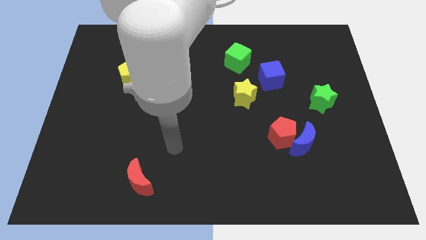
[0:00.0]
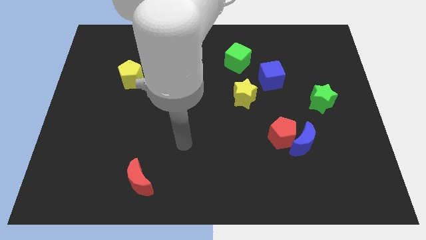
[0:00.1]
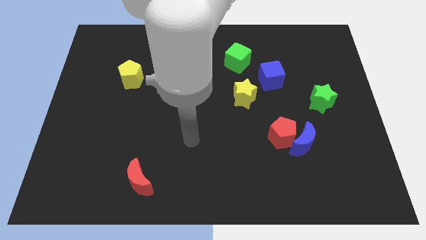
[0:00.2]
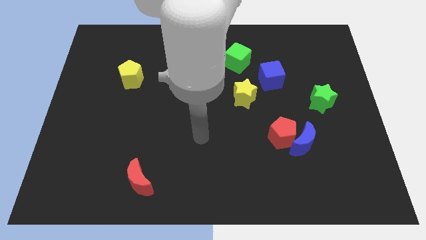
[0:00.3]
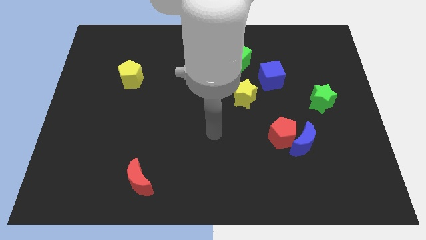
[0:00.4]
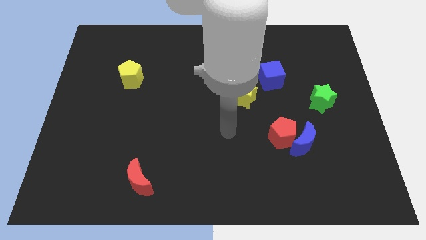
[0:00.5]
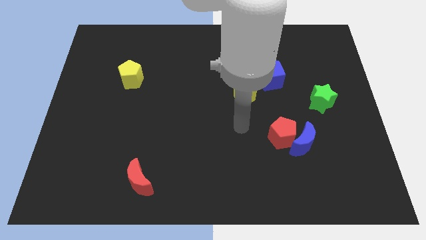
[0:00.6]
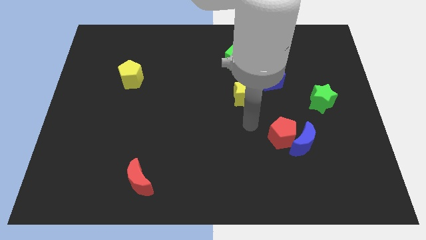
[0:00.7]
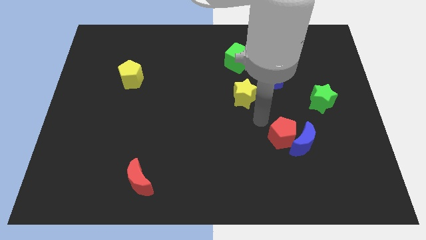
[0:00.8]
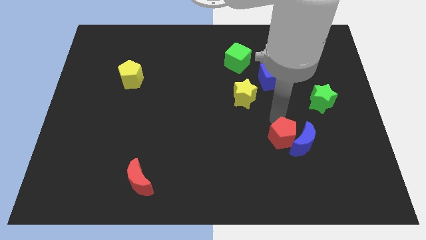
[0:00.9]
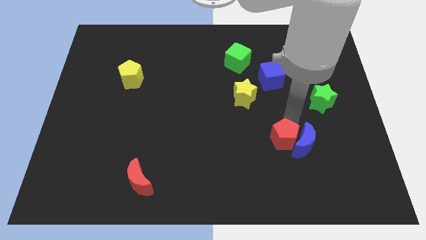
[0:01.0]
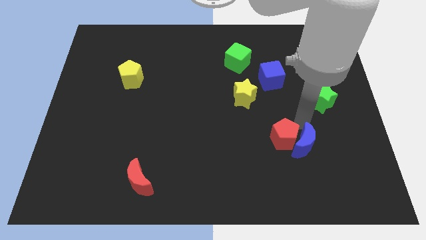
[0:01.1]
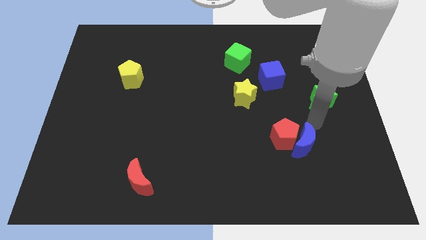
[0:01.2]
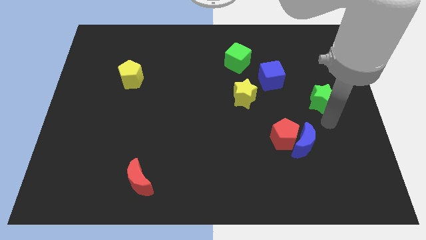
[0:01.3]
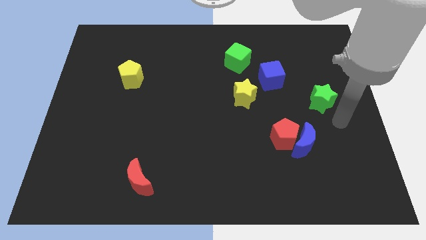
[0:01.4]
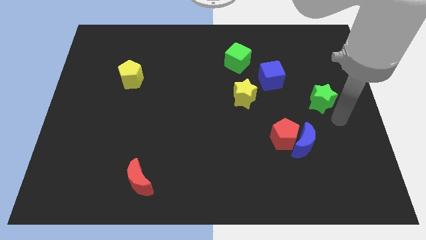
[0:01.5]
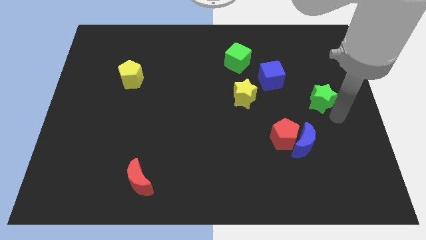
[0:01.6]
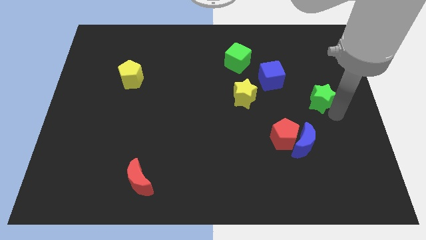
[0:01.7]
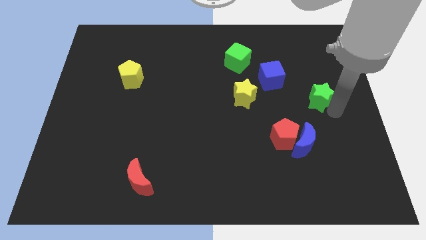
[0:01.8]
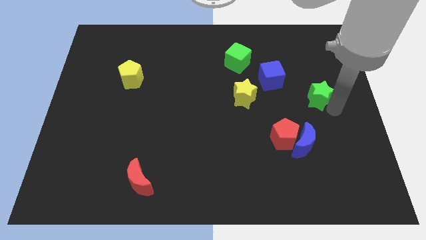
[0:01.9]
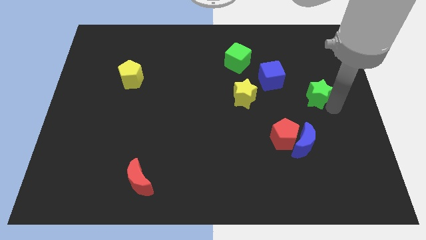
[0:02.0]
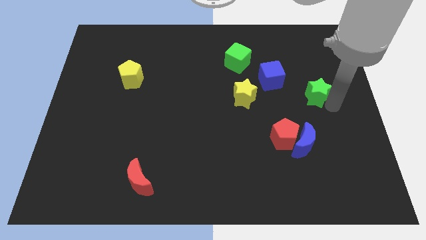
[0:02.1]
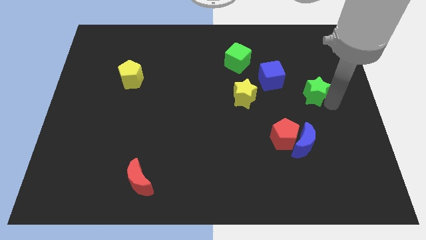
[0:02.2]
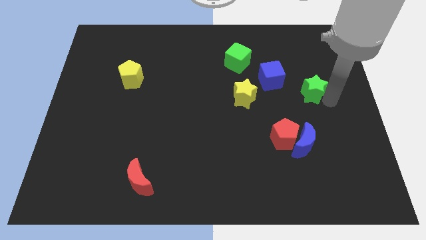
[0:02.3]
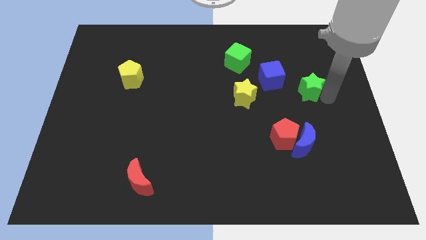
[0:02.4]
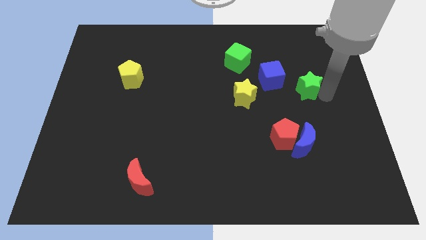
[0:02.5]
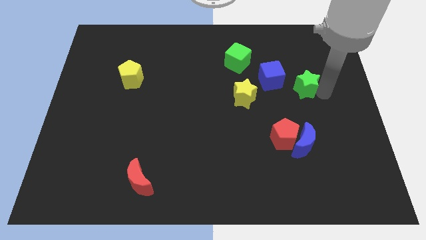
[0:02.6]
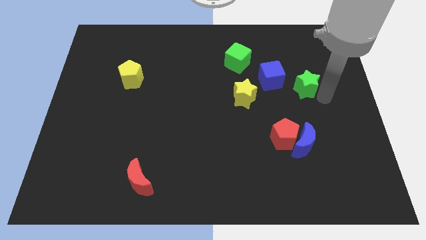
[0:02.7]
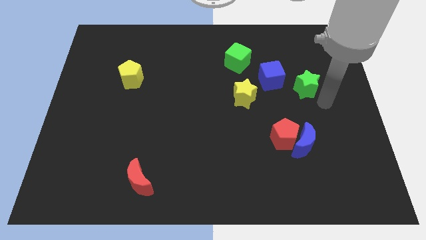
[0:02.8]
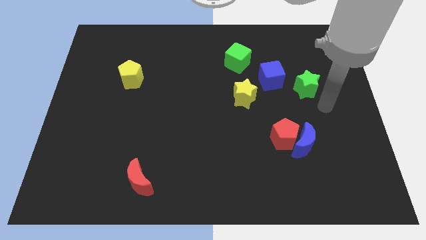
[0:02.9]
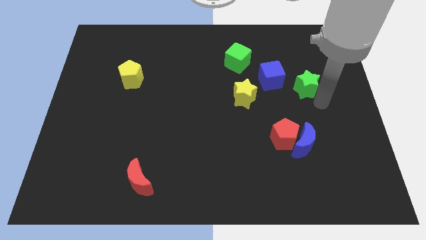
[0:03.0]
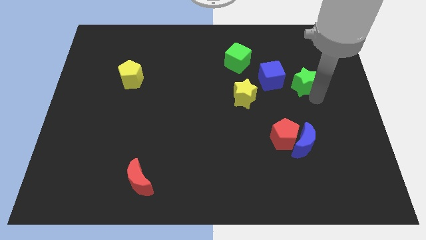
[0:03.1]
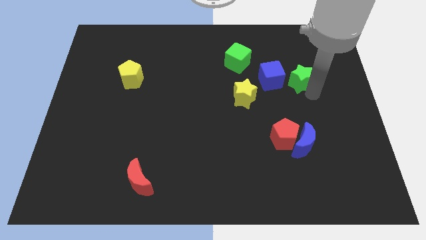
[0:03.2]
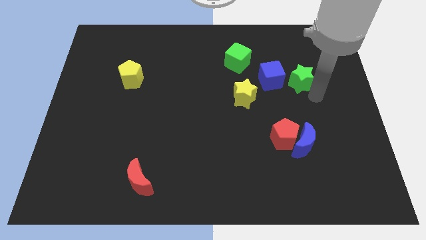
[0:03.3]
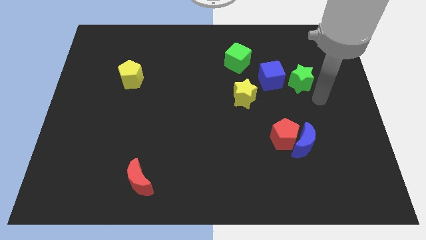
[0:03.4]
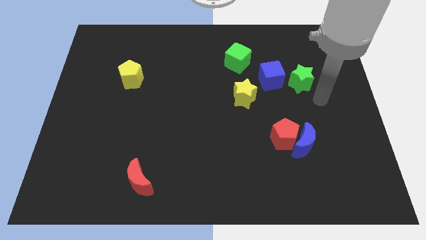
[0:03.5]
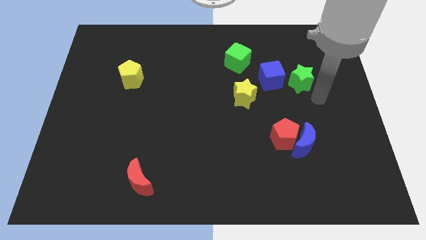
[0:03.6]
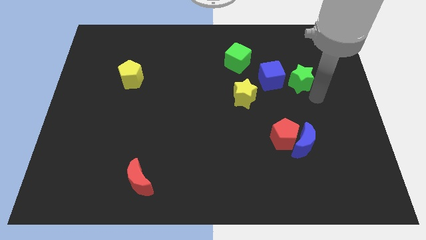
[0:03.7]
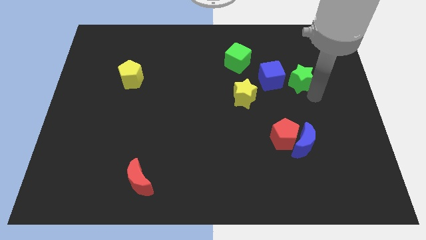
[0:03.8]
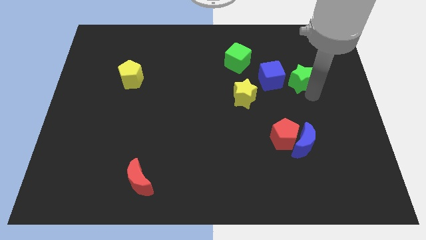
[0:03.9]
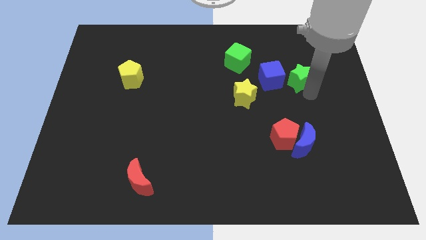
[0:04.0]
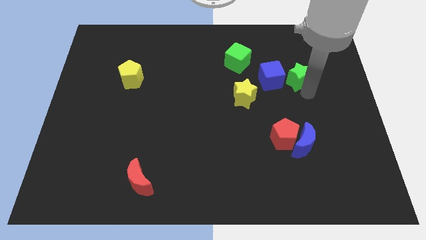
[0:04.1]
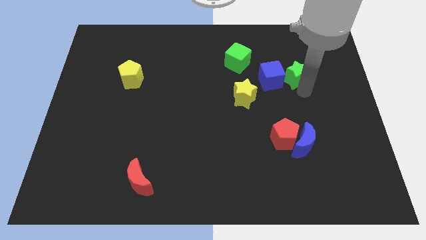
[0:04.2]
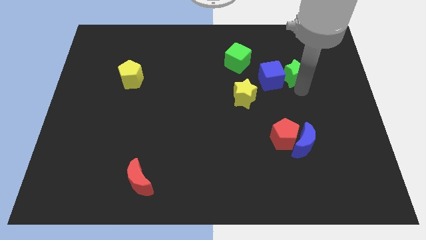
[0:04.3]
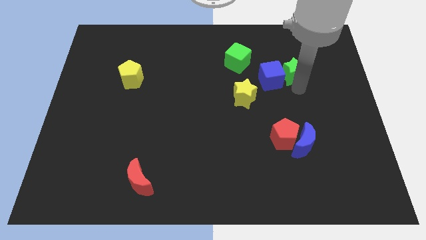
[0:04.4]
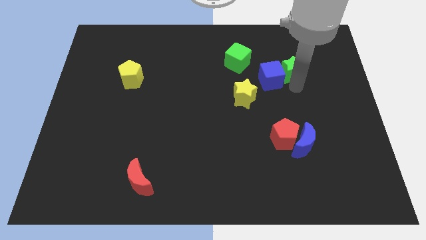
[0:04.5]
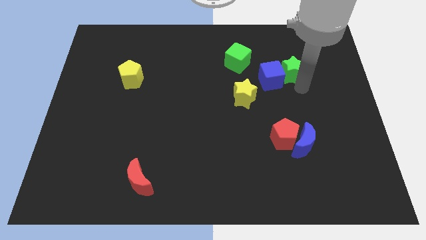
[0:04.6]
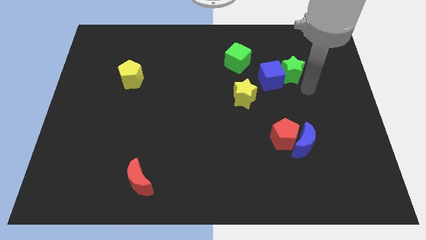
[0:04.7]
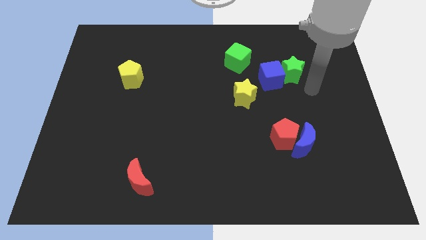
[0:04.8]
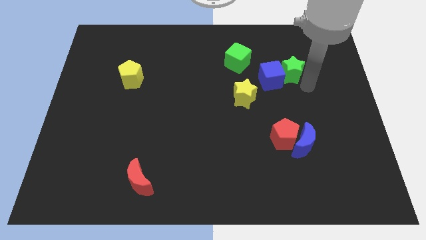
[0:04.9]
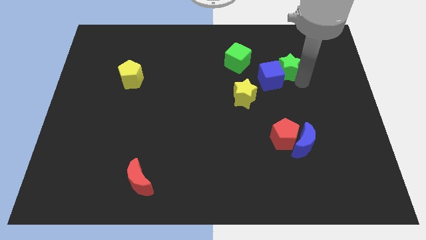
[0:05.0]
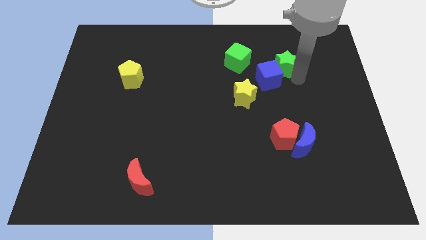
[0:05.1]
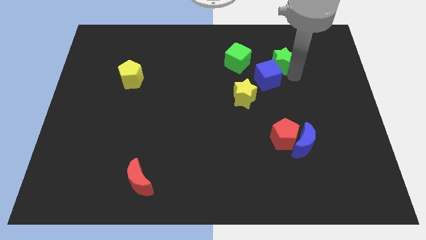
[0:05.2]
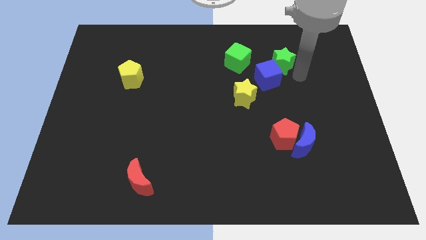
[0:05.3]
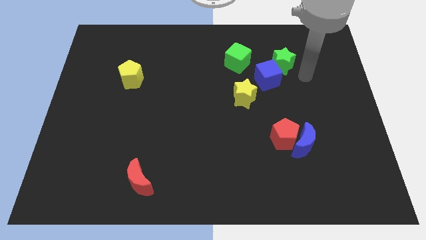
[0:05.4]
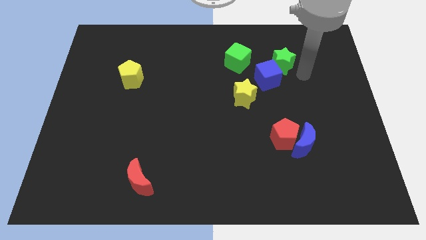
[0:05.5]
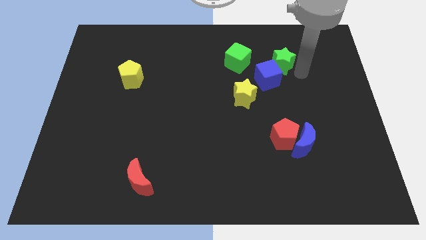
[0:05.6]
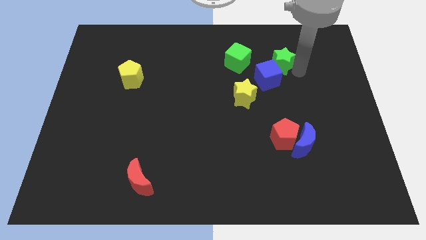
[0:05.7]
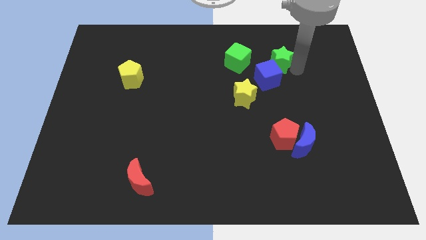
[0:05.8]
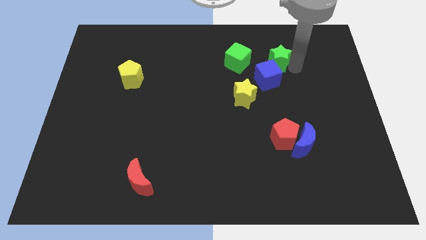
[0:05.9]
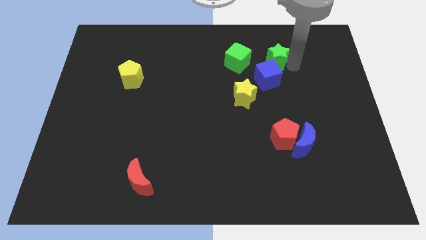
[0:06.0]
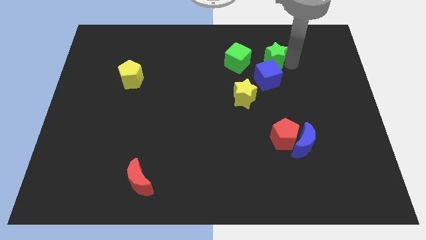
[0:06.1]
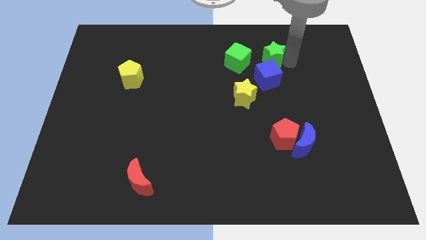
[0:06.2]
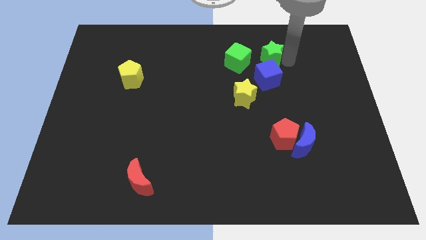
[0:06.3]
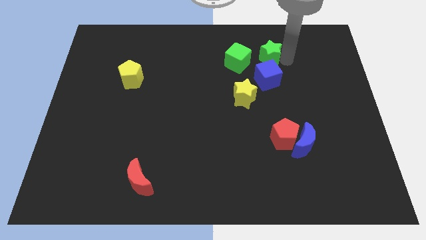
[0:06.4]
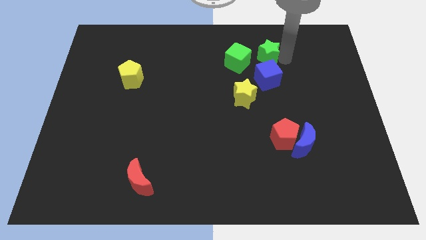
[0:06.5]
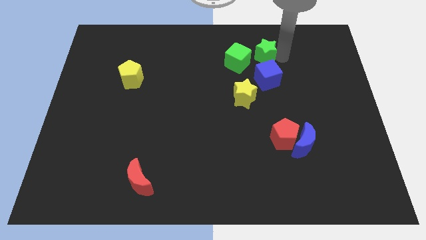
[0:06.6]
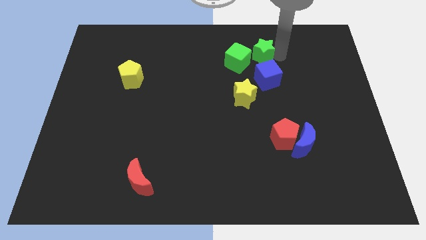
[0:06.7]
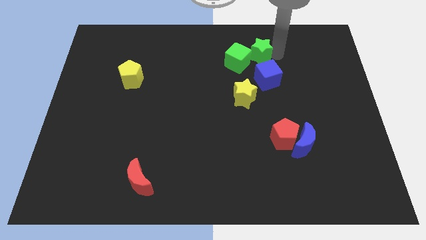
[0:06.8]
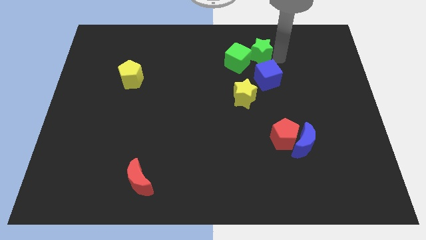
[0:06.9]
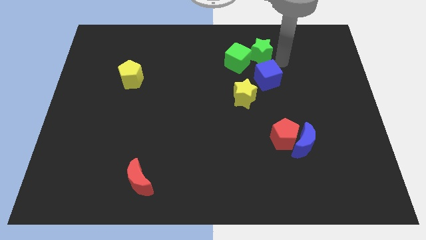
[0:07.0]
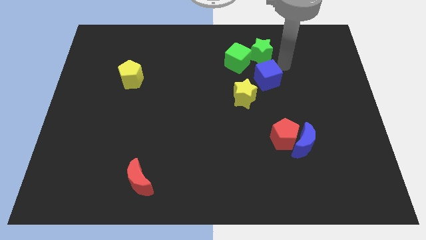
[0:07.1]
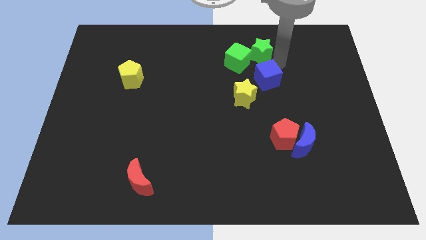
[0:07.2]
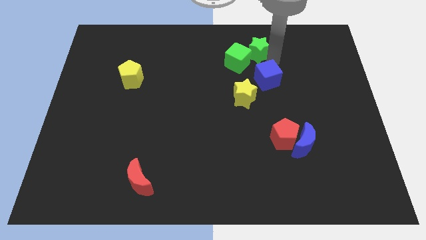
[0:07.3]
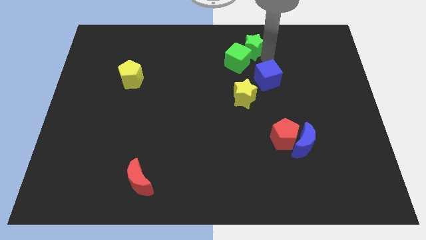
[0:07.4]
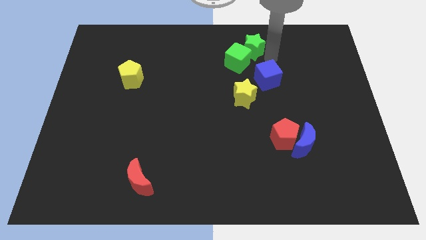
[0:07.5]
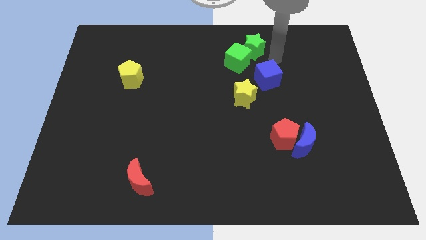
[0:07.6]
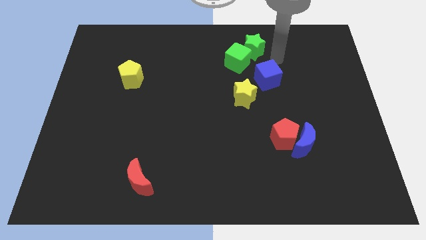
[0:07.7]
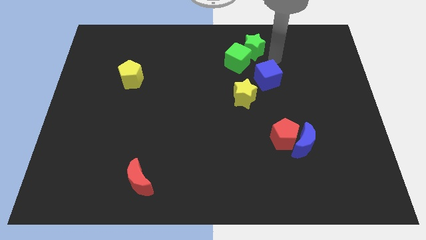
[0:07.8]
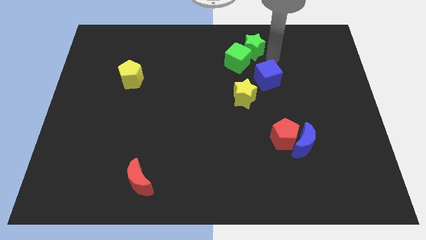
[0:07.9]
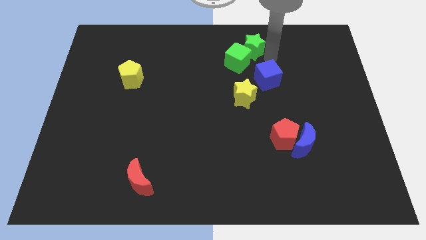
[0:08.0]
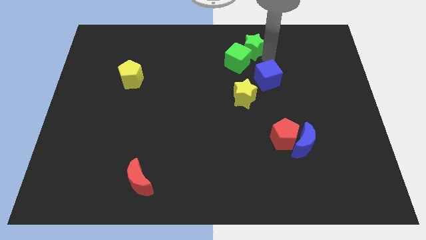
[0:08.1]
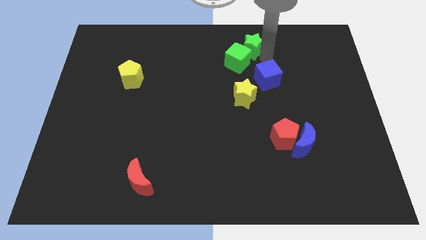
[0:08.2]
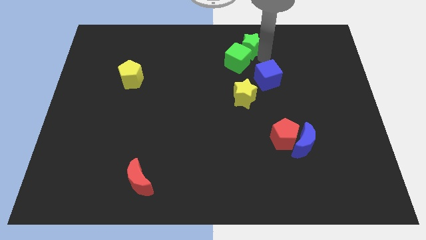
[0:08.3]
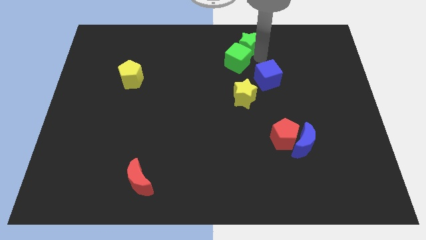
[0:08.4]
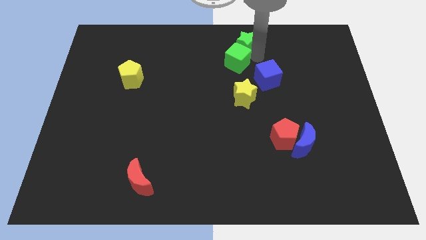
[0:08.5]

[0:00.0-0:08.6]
slide the green star to the top side
